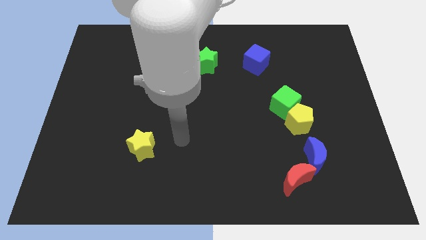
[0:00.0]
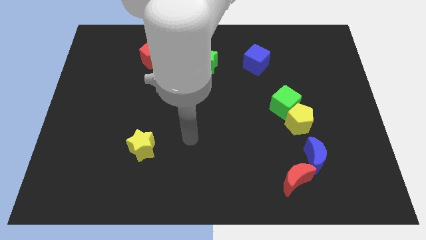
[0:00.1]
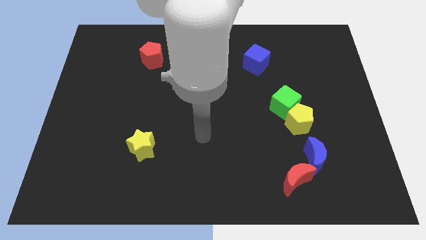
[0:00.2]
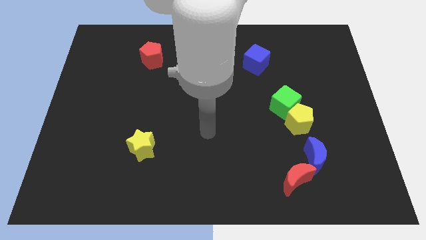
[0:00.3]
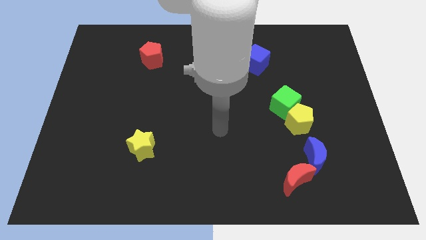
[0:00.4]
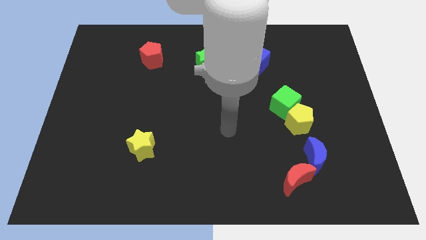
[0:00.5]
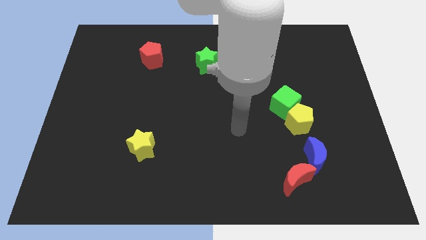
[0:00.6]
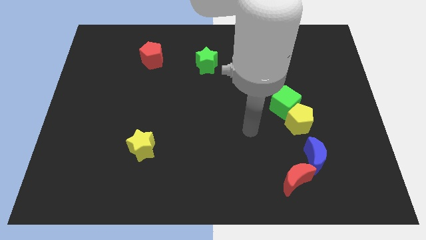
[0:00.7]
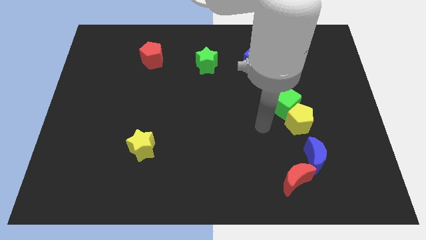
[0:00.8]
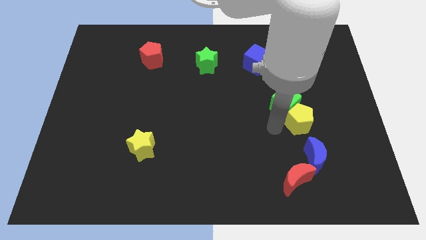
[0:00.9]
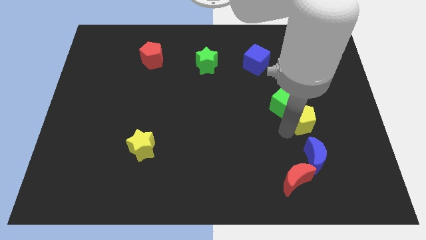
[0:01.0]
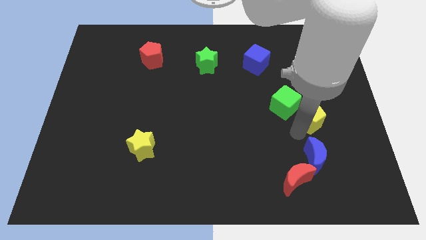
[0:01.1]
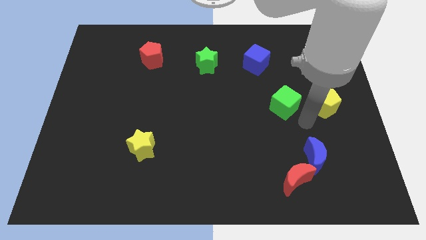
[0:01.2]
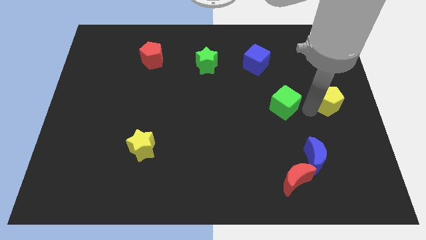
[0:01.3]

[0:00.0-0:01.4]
move the green cube away from the yellow pentagon

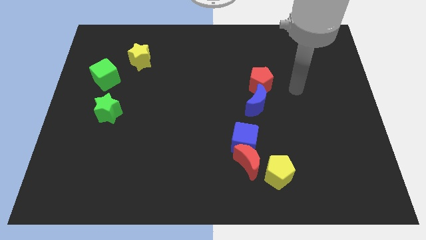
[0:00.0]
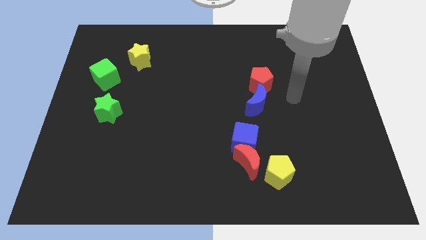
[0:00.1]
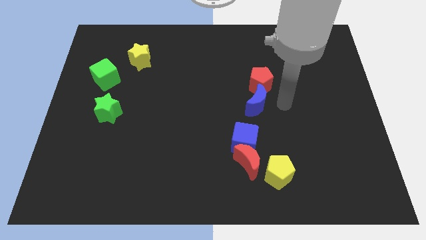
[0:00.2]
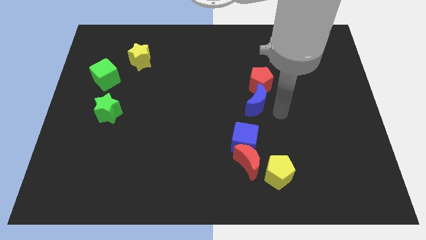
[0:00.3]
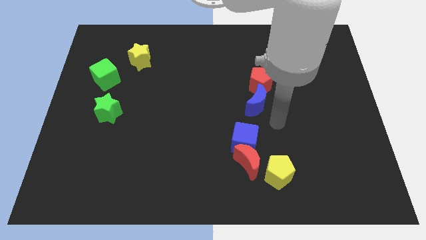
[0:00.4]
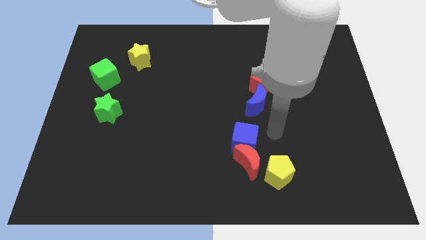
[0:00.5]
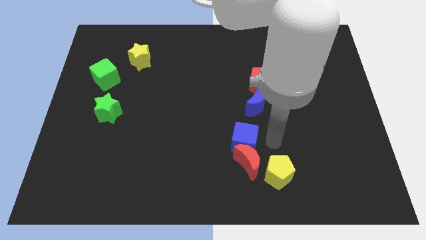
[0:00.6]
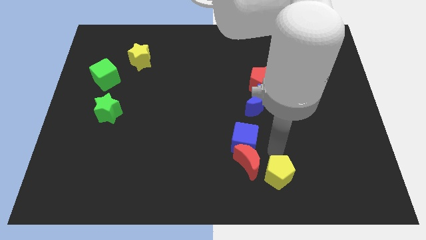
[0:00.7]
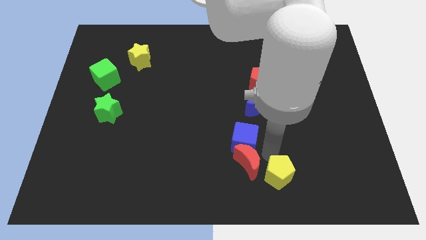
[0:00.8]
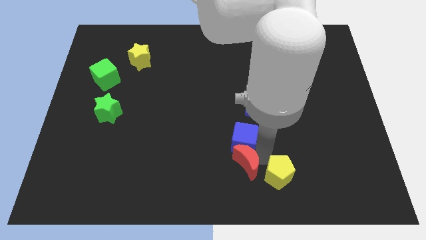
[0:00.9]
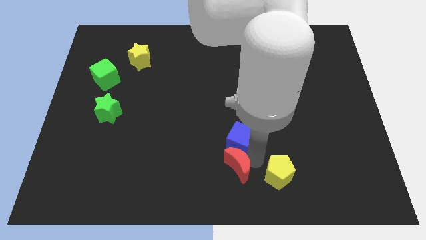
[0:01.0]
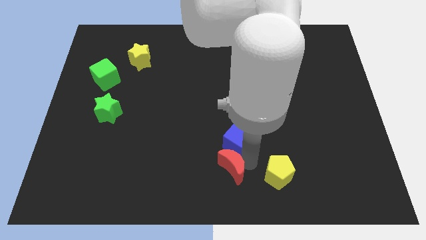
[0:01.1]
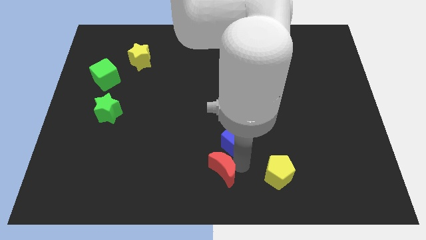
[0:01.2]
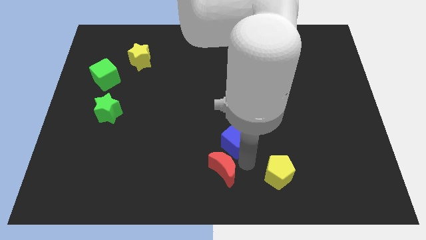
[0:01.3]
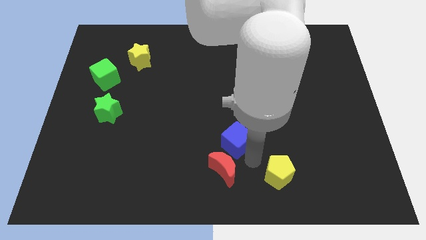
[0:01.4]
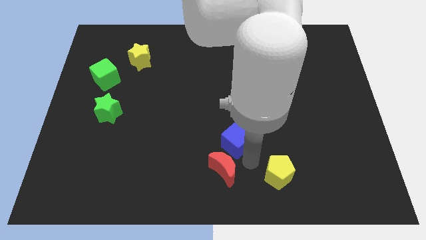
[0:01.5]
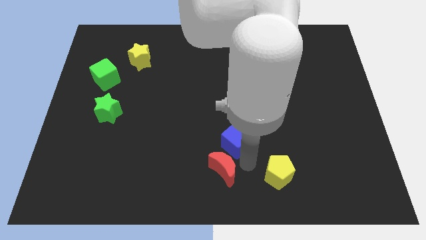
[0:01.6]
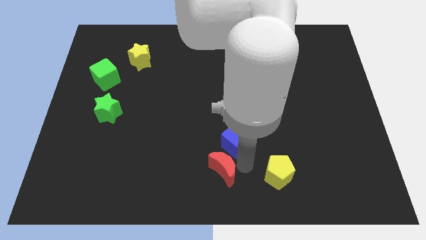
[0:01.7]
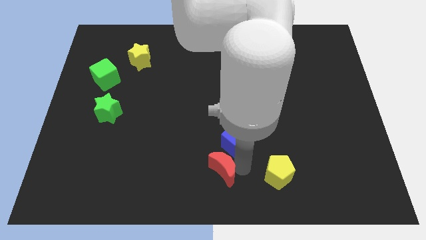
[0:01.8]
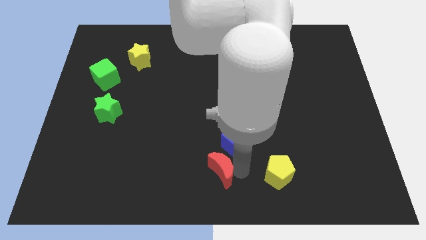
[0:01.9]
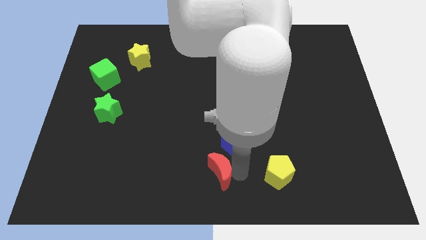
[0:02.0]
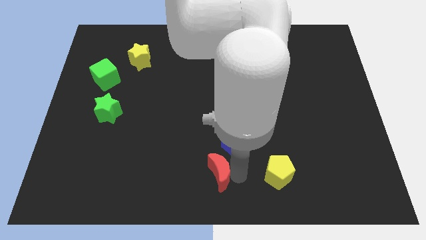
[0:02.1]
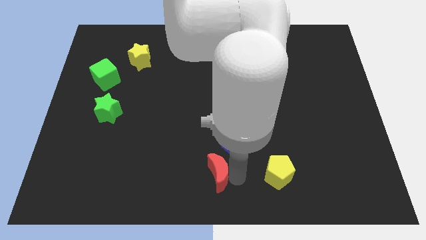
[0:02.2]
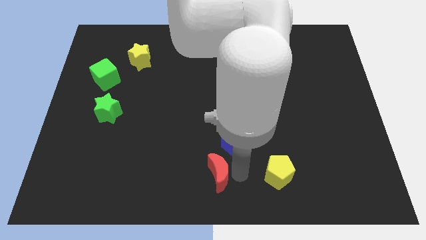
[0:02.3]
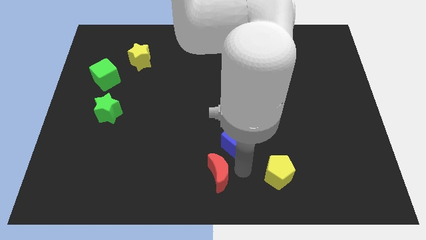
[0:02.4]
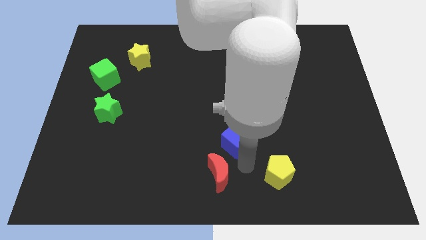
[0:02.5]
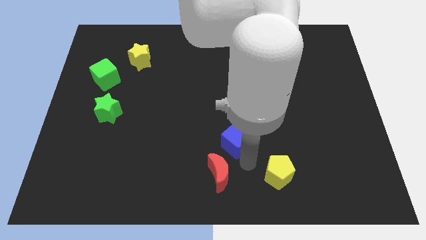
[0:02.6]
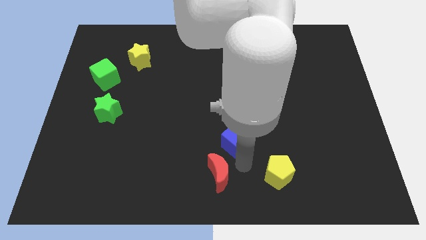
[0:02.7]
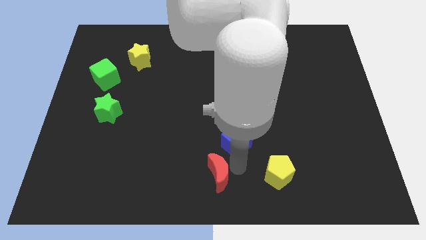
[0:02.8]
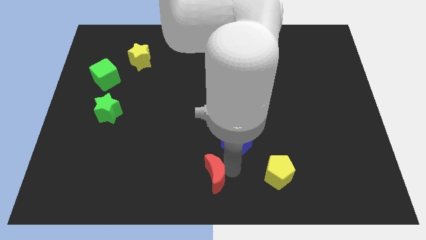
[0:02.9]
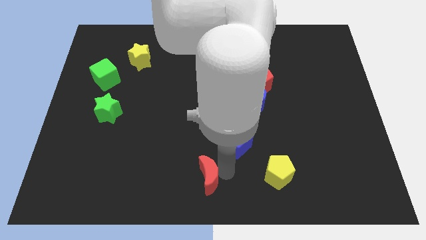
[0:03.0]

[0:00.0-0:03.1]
move the red moon away from the blue cube and yellow pentagon

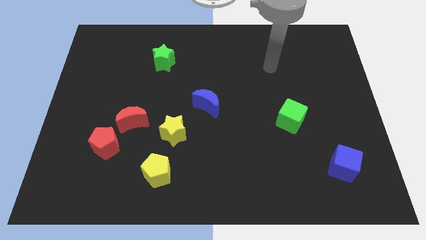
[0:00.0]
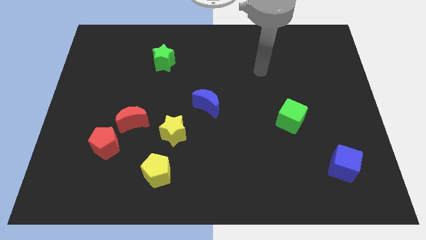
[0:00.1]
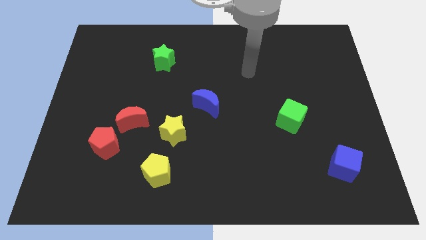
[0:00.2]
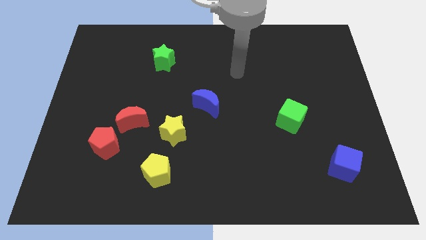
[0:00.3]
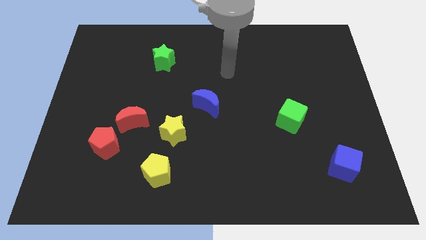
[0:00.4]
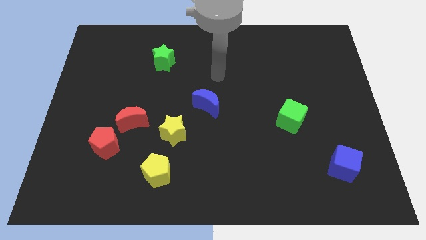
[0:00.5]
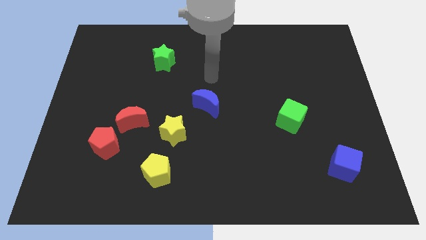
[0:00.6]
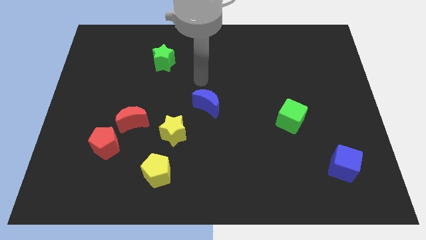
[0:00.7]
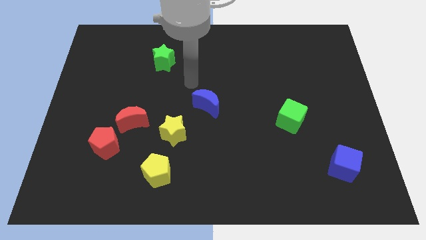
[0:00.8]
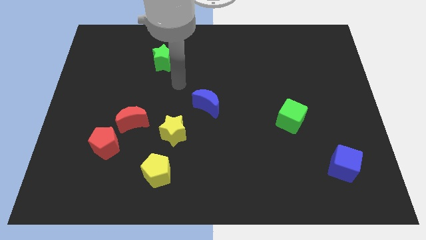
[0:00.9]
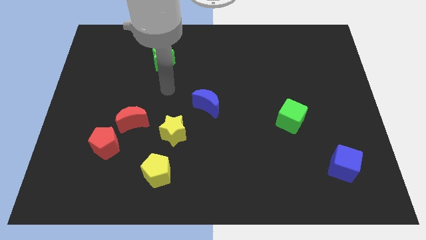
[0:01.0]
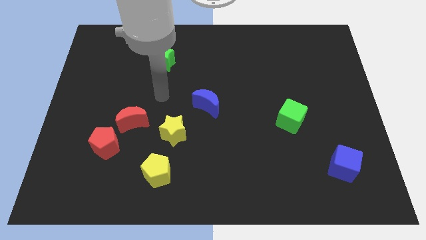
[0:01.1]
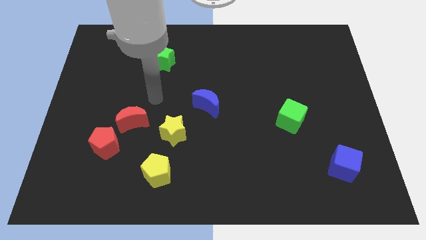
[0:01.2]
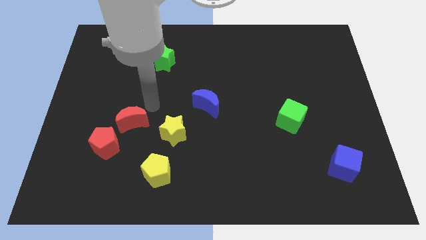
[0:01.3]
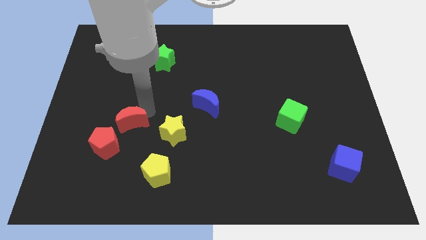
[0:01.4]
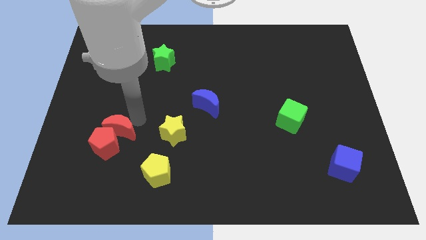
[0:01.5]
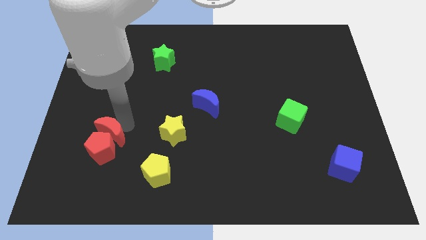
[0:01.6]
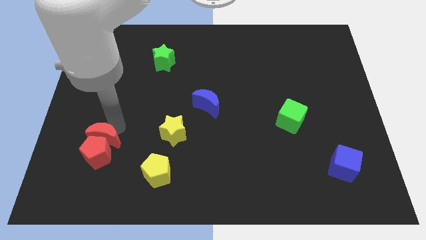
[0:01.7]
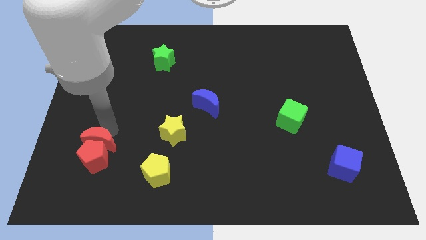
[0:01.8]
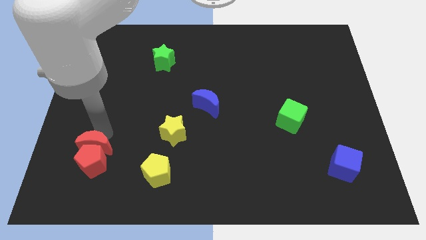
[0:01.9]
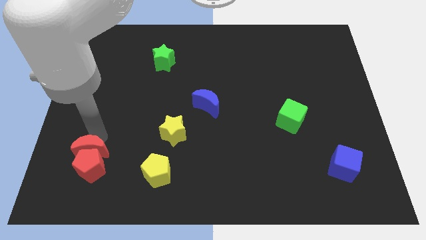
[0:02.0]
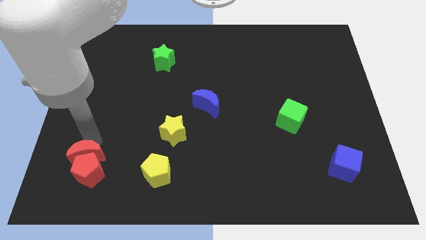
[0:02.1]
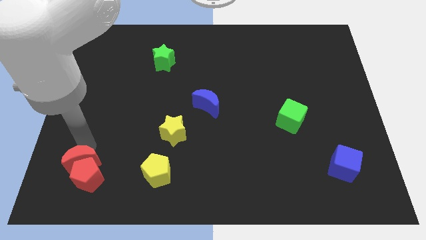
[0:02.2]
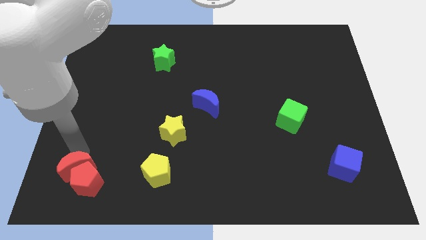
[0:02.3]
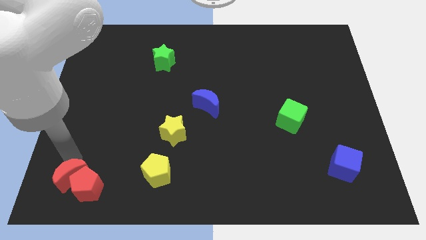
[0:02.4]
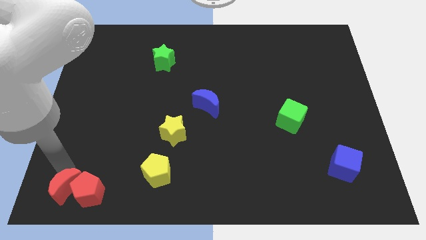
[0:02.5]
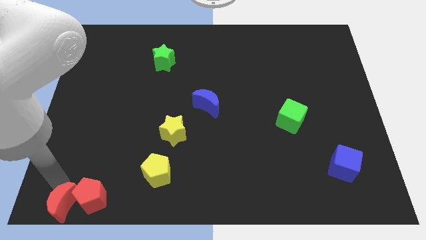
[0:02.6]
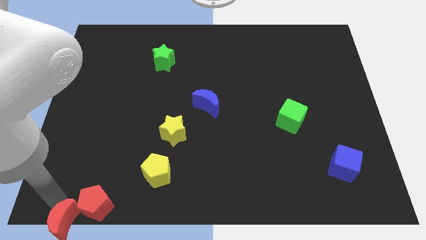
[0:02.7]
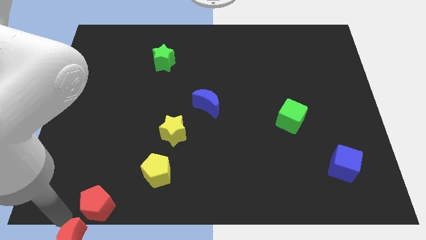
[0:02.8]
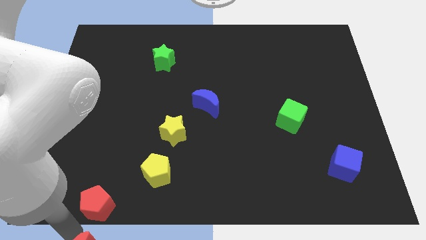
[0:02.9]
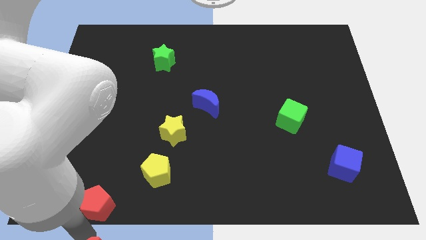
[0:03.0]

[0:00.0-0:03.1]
separate the red pentagon from the red moon

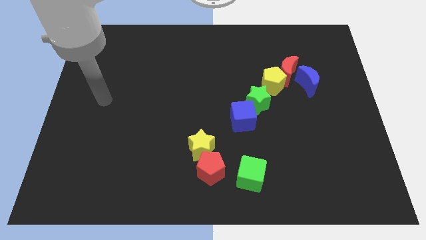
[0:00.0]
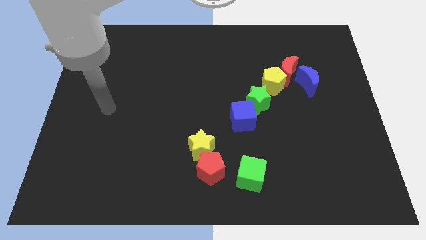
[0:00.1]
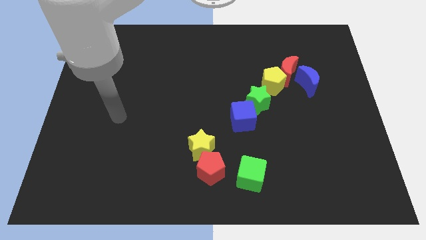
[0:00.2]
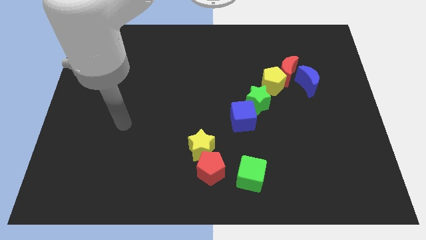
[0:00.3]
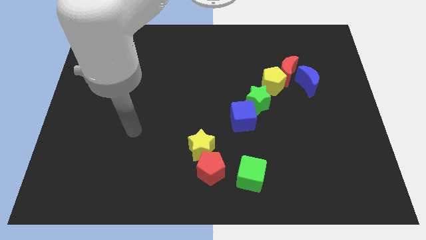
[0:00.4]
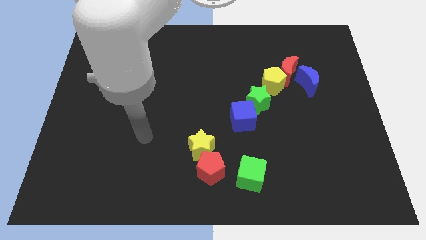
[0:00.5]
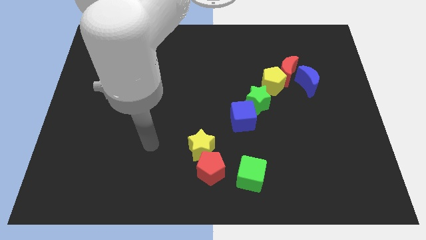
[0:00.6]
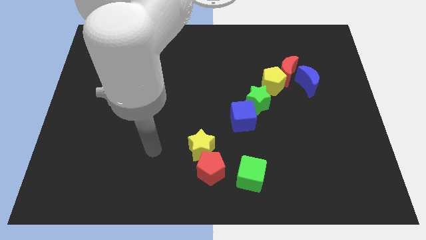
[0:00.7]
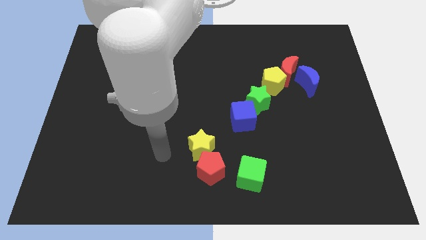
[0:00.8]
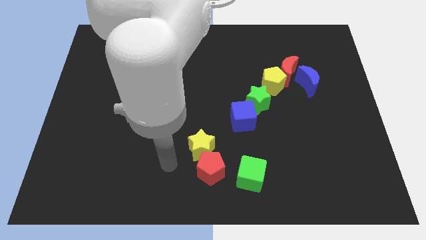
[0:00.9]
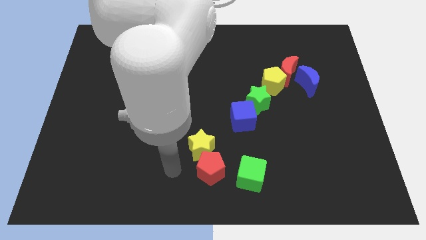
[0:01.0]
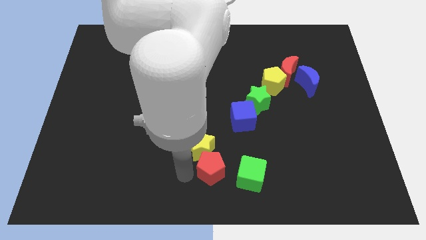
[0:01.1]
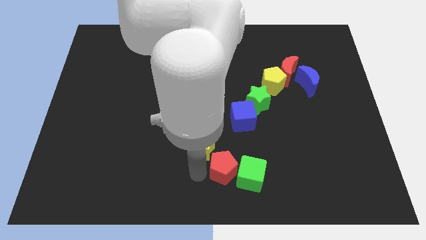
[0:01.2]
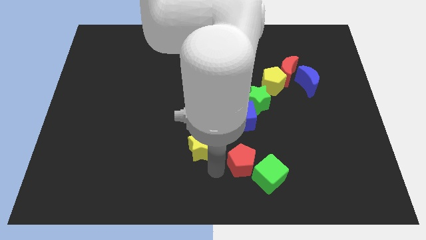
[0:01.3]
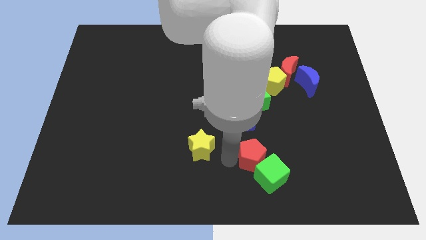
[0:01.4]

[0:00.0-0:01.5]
pull the yellow star apart from the red pentagon

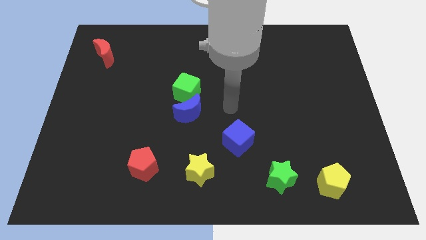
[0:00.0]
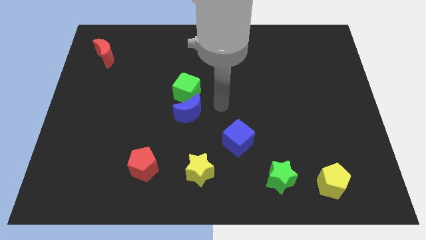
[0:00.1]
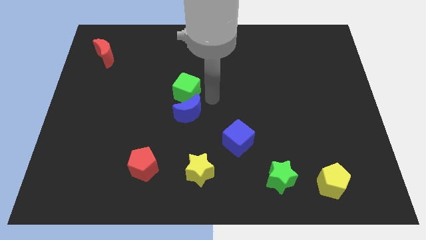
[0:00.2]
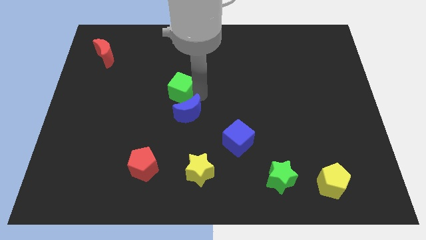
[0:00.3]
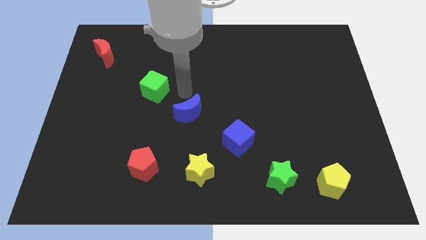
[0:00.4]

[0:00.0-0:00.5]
move the blue moon away from the green cube
